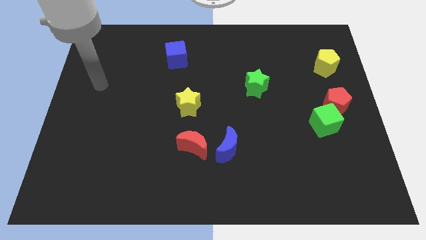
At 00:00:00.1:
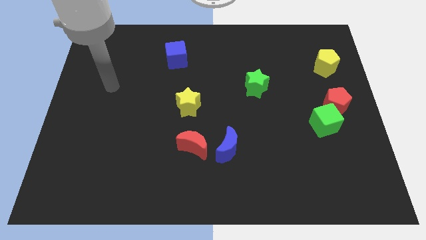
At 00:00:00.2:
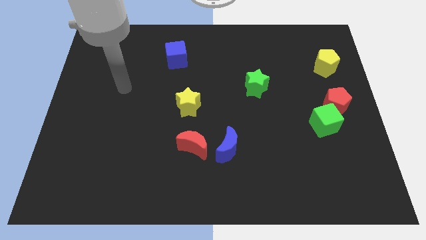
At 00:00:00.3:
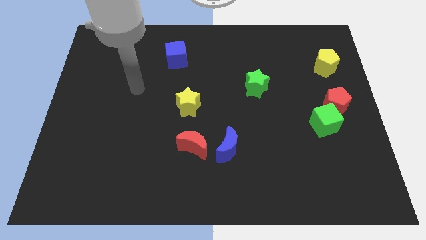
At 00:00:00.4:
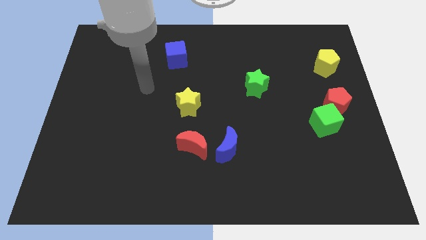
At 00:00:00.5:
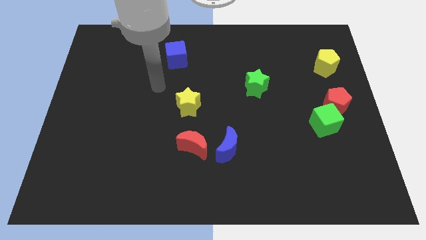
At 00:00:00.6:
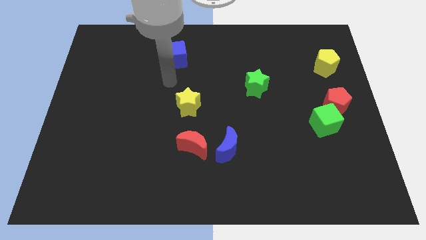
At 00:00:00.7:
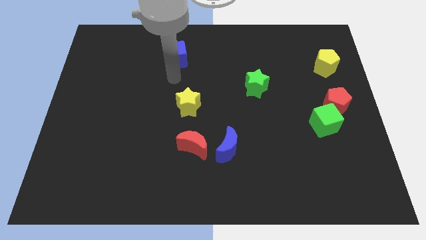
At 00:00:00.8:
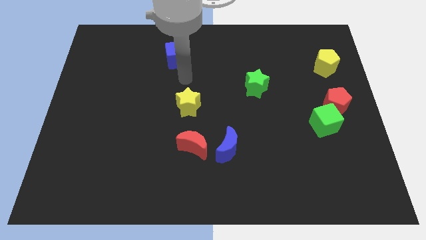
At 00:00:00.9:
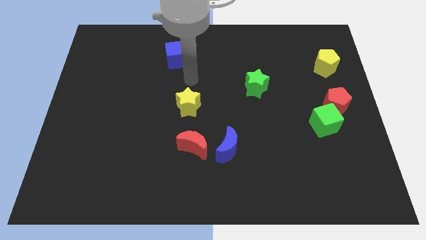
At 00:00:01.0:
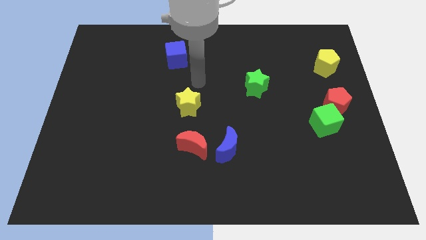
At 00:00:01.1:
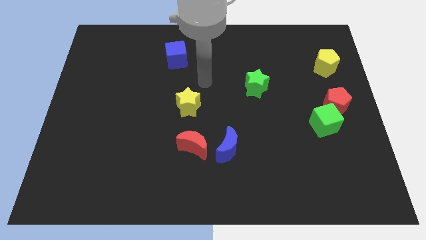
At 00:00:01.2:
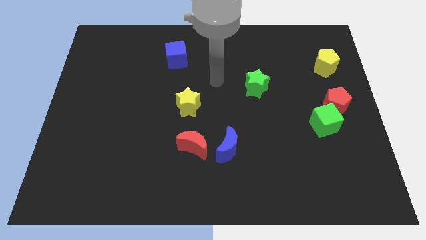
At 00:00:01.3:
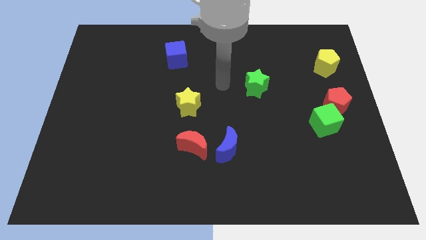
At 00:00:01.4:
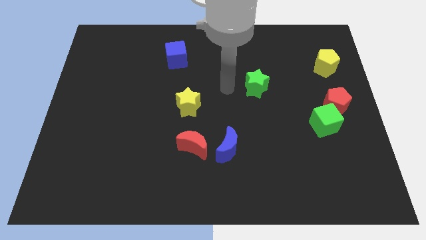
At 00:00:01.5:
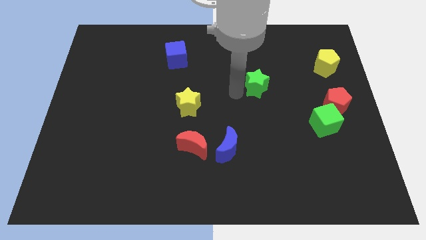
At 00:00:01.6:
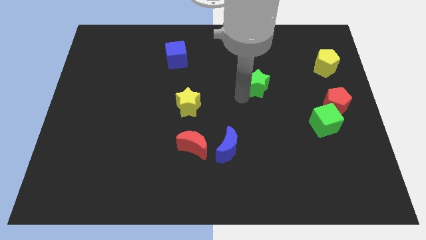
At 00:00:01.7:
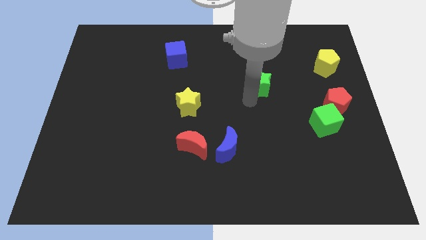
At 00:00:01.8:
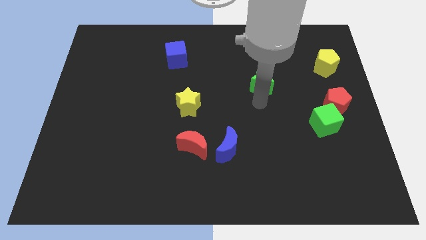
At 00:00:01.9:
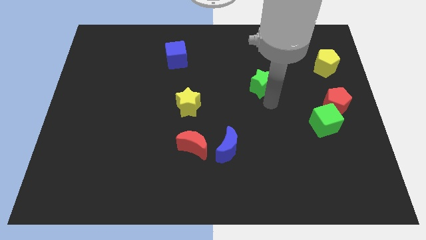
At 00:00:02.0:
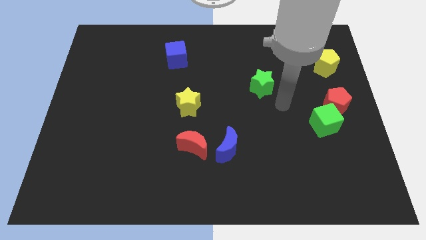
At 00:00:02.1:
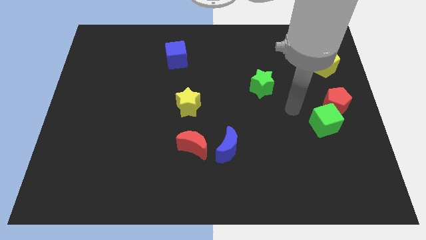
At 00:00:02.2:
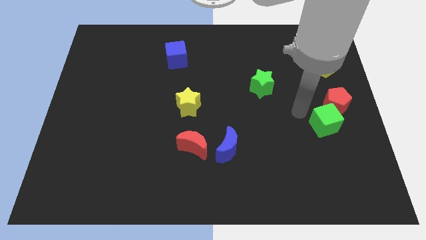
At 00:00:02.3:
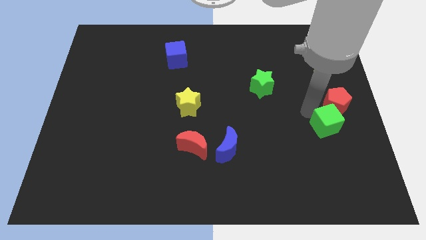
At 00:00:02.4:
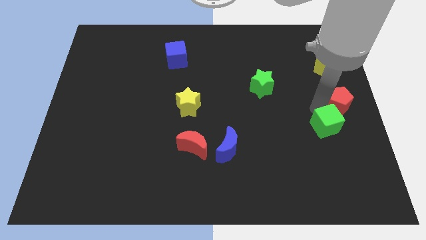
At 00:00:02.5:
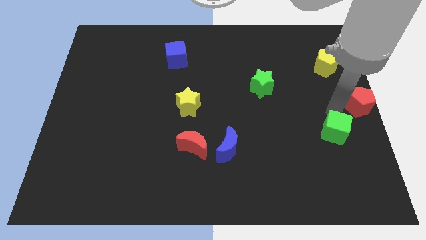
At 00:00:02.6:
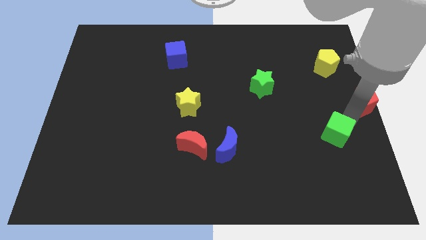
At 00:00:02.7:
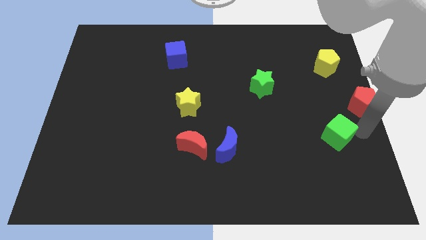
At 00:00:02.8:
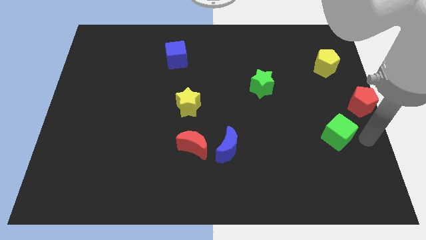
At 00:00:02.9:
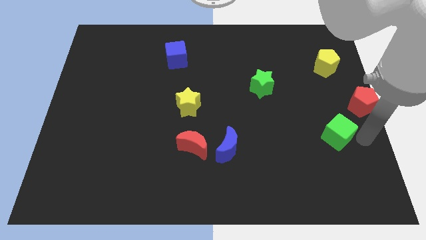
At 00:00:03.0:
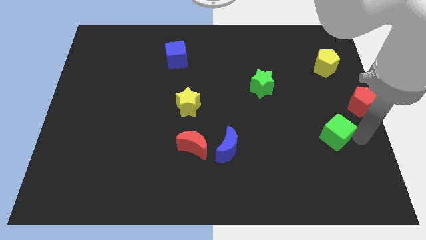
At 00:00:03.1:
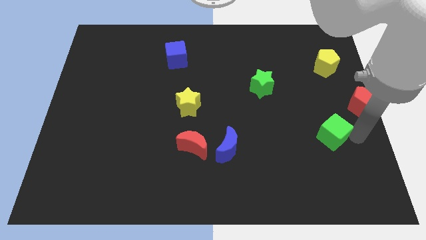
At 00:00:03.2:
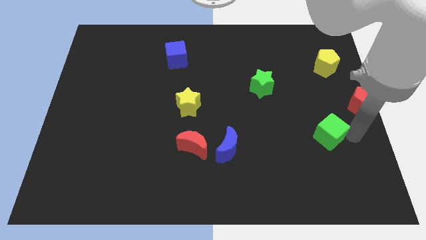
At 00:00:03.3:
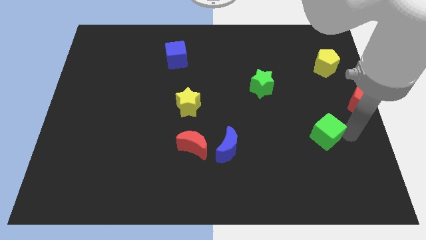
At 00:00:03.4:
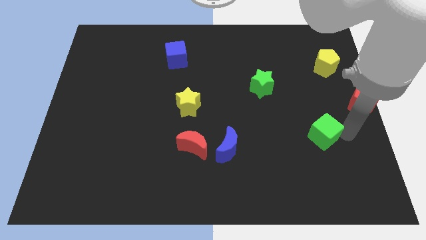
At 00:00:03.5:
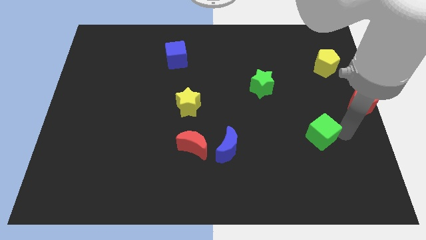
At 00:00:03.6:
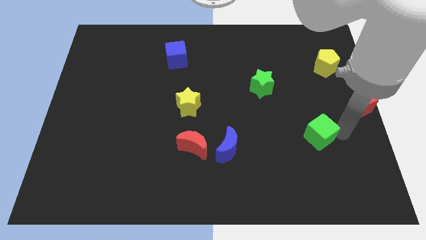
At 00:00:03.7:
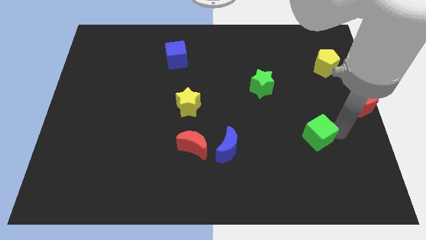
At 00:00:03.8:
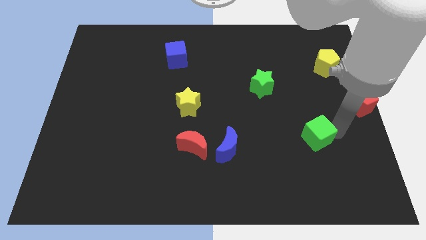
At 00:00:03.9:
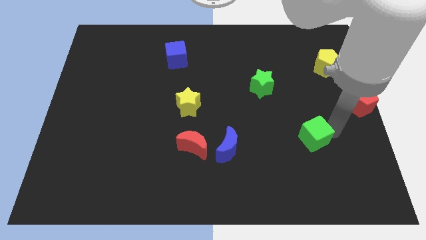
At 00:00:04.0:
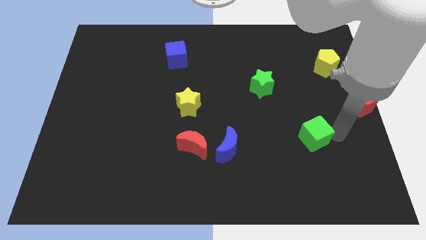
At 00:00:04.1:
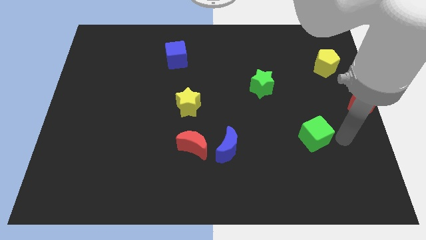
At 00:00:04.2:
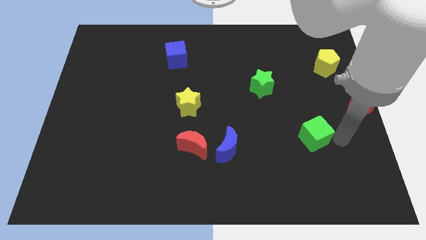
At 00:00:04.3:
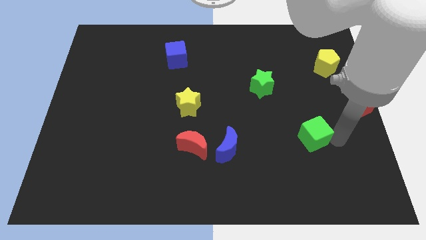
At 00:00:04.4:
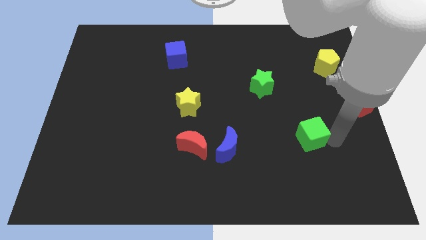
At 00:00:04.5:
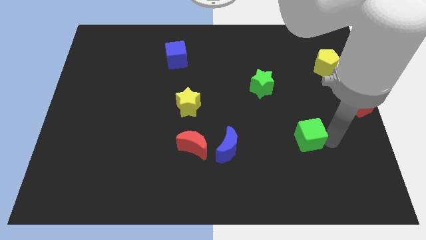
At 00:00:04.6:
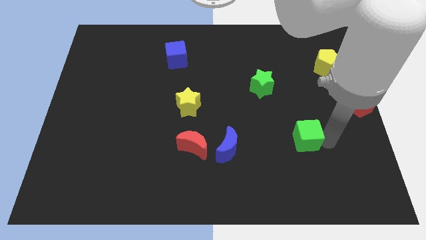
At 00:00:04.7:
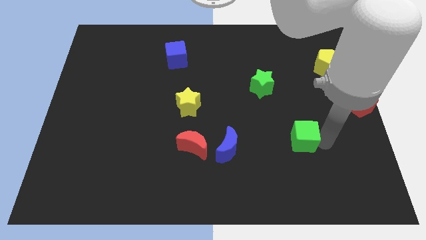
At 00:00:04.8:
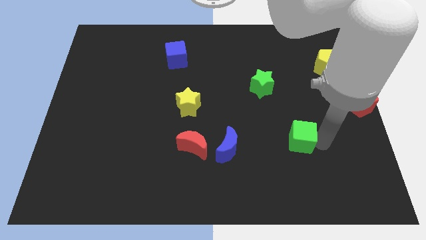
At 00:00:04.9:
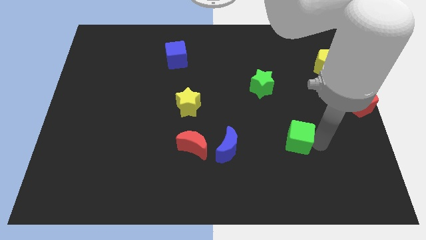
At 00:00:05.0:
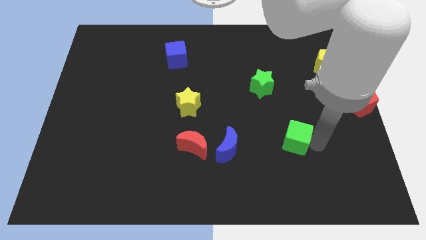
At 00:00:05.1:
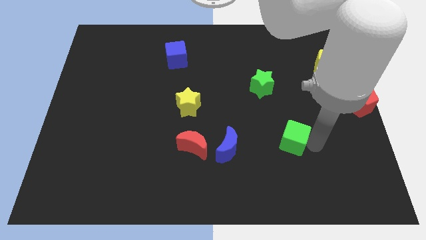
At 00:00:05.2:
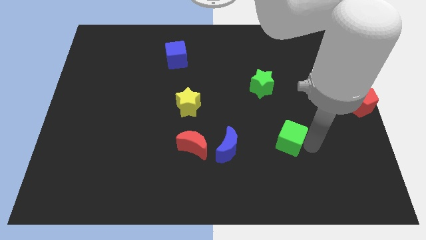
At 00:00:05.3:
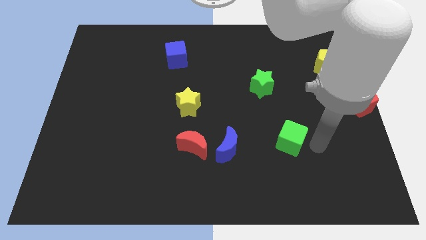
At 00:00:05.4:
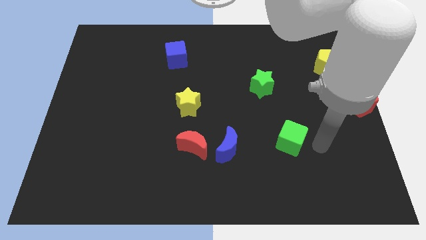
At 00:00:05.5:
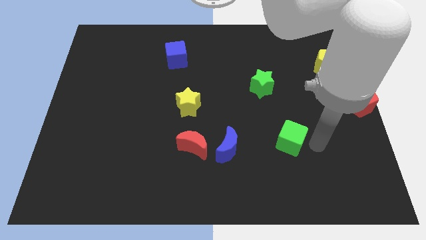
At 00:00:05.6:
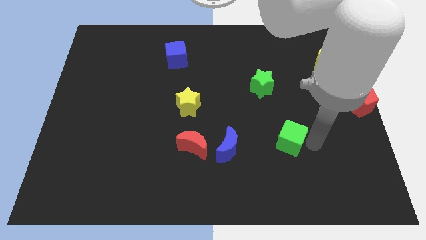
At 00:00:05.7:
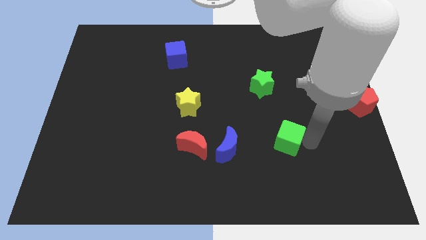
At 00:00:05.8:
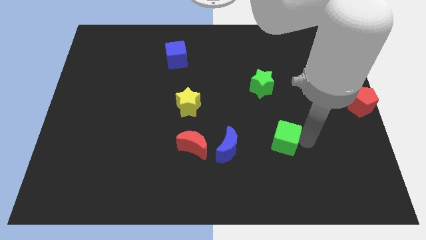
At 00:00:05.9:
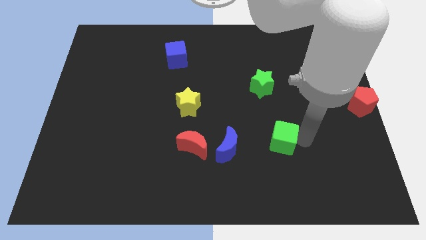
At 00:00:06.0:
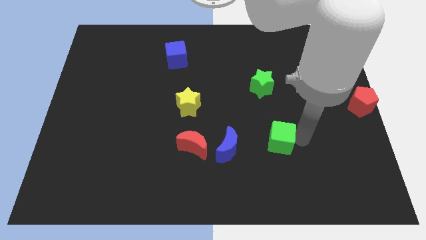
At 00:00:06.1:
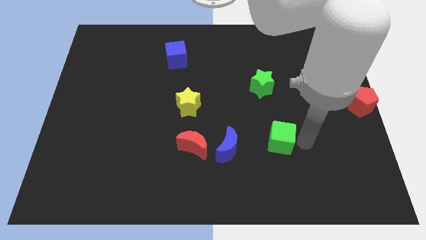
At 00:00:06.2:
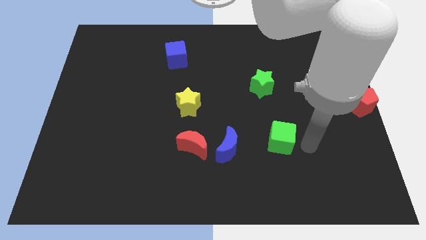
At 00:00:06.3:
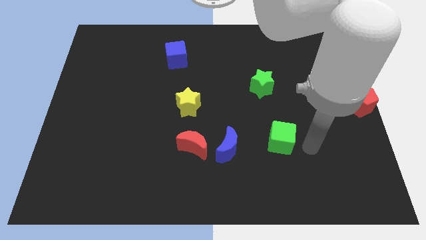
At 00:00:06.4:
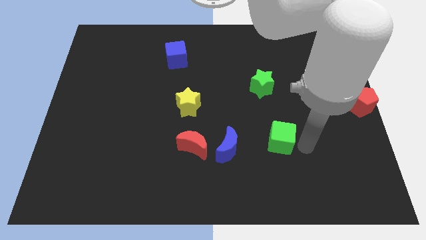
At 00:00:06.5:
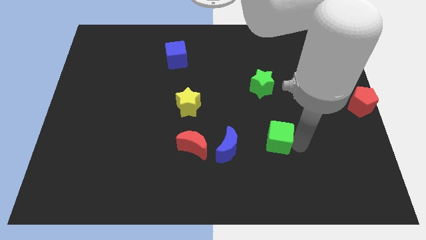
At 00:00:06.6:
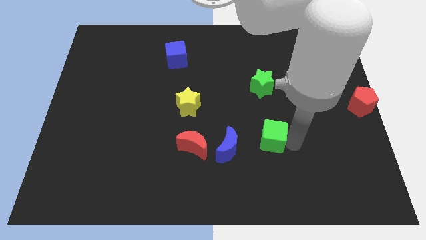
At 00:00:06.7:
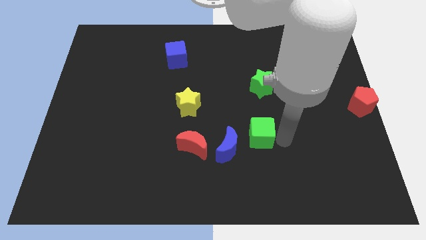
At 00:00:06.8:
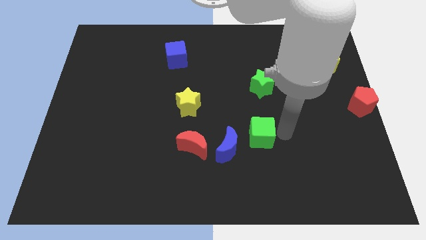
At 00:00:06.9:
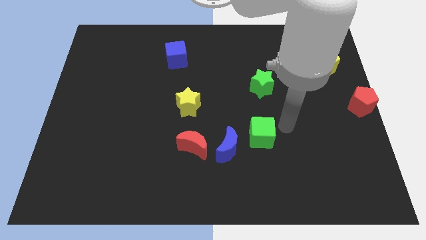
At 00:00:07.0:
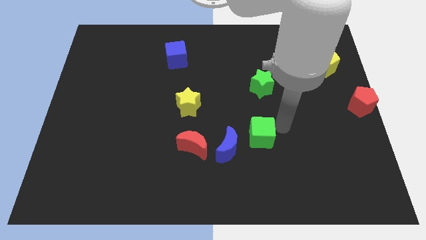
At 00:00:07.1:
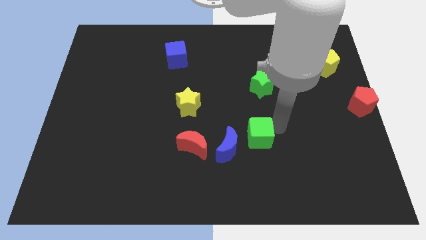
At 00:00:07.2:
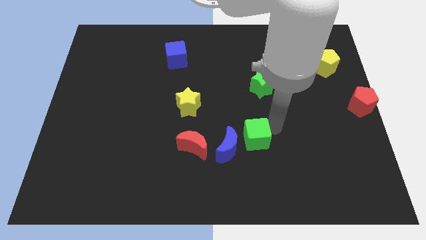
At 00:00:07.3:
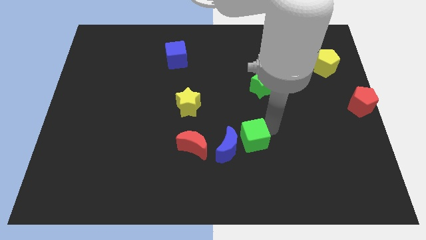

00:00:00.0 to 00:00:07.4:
push the green cube to the blue moon
